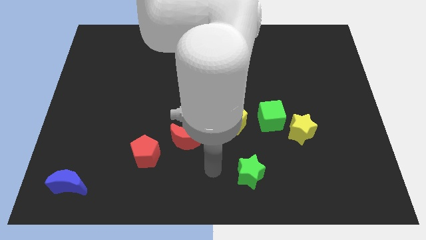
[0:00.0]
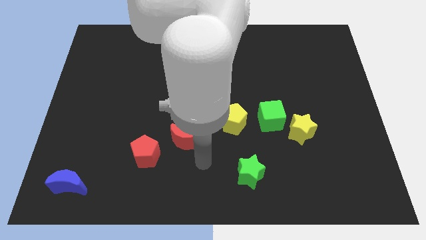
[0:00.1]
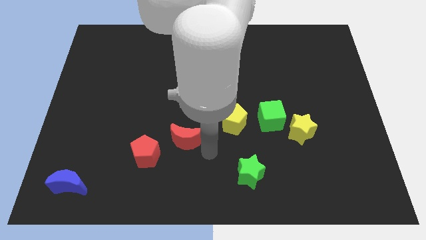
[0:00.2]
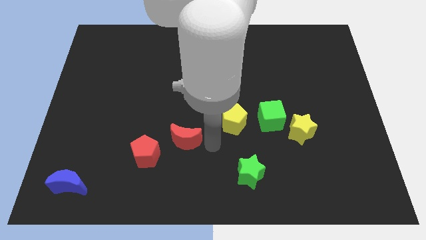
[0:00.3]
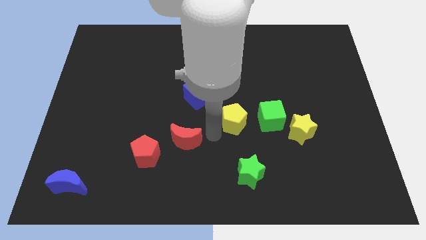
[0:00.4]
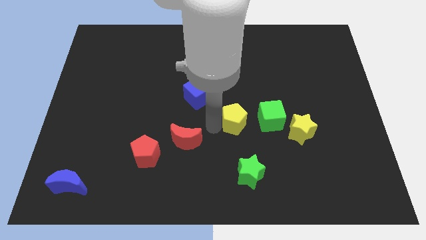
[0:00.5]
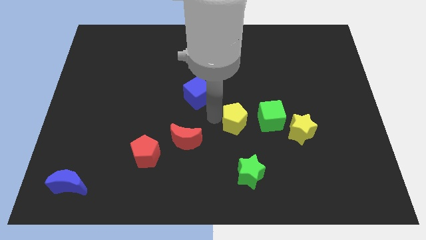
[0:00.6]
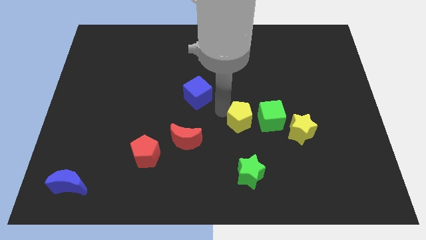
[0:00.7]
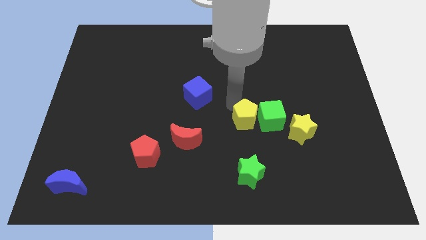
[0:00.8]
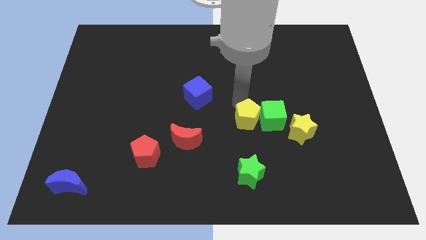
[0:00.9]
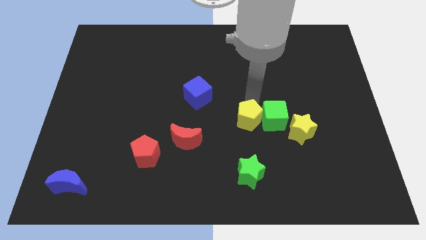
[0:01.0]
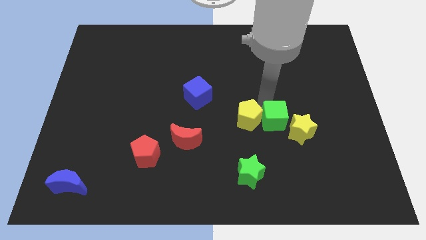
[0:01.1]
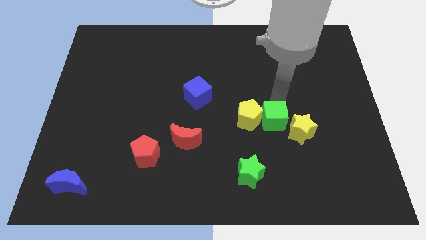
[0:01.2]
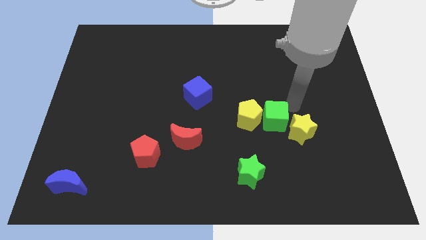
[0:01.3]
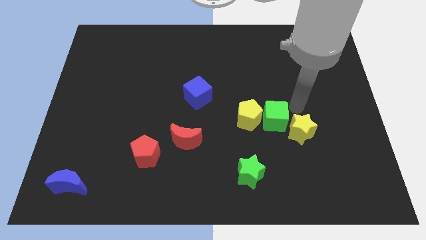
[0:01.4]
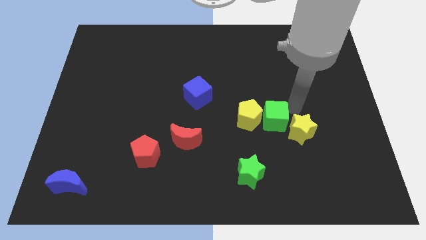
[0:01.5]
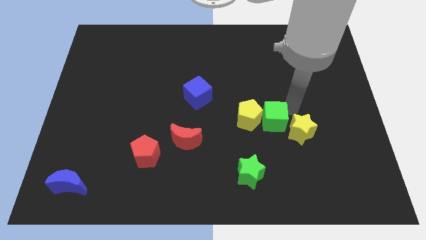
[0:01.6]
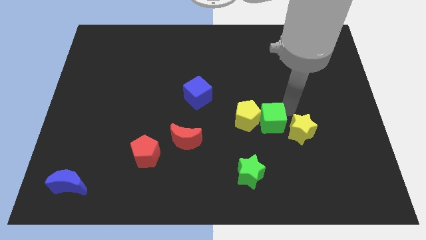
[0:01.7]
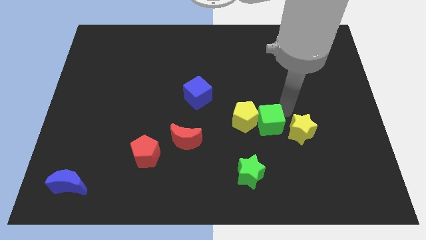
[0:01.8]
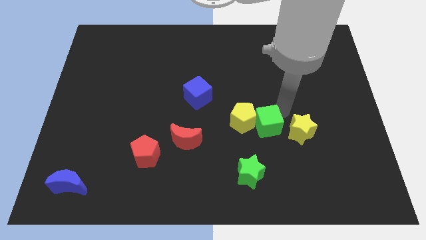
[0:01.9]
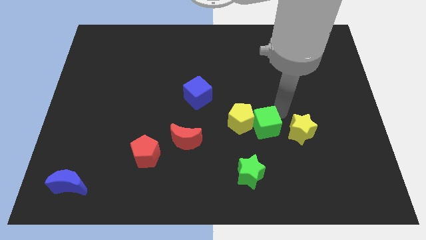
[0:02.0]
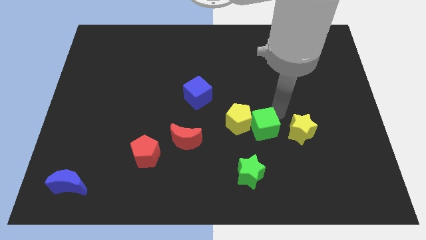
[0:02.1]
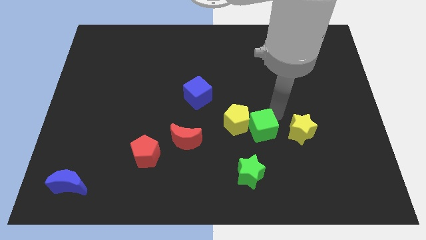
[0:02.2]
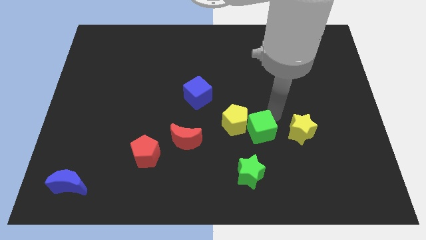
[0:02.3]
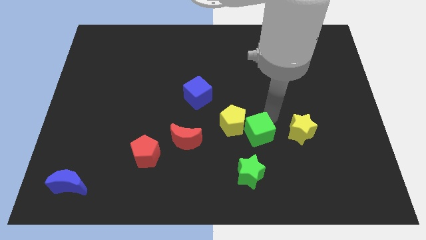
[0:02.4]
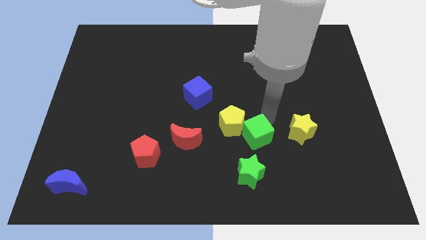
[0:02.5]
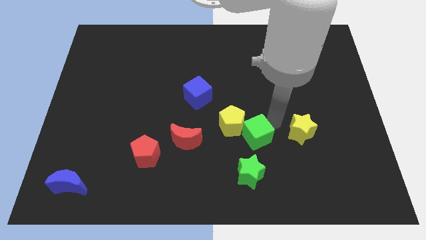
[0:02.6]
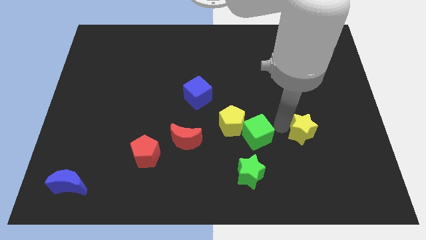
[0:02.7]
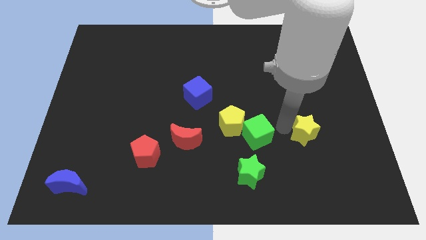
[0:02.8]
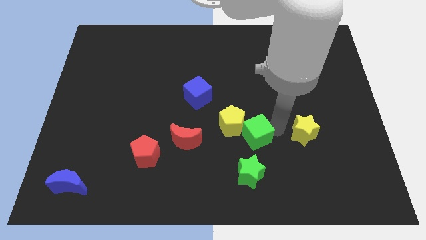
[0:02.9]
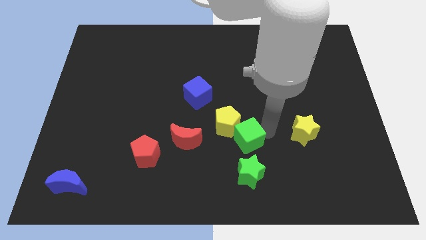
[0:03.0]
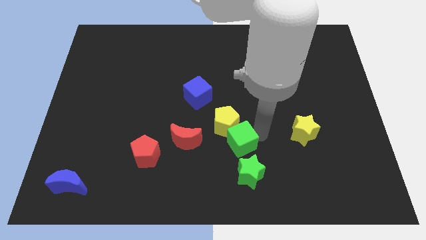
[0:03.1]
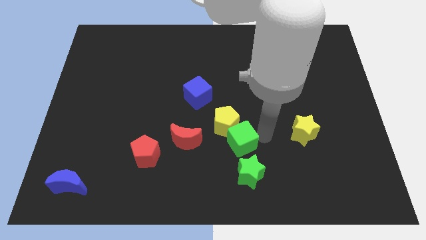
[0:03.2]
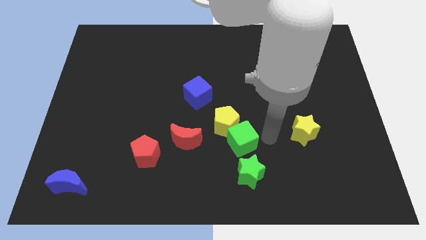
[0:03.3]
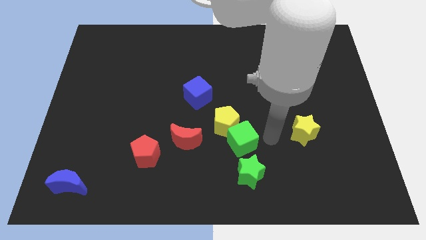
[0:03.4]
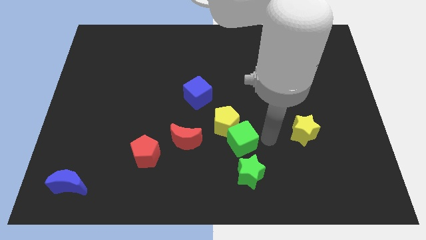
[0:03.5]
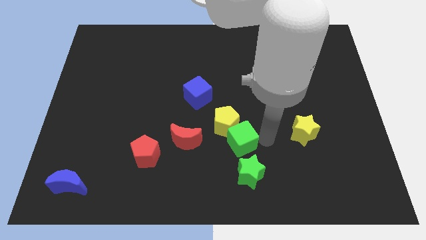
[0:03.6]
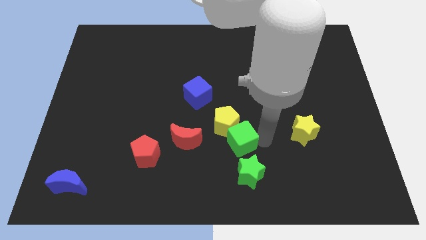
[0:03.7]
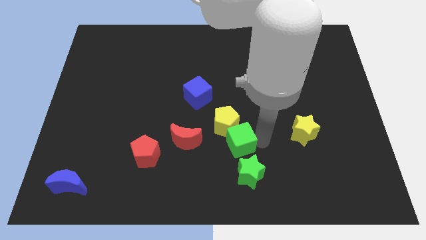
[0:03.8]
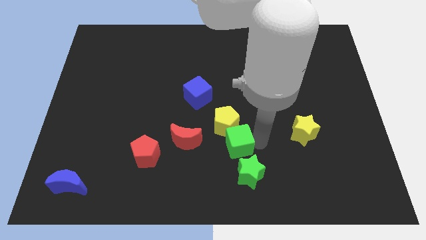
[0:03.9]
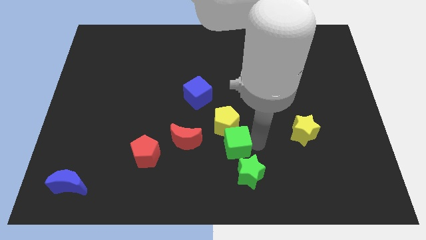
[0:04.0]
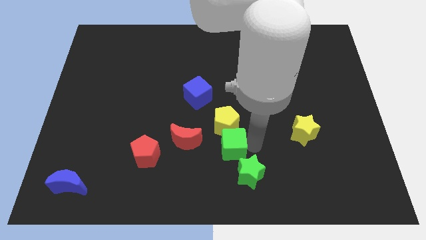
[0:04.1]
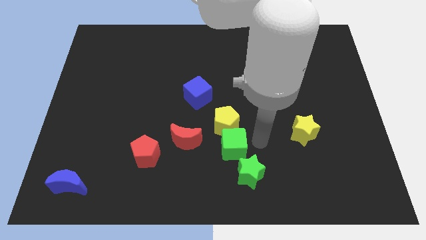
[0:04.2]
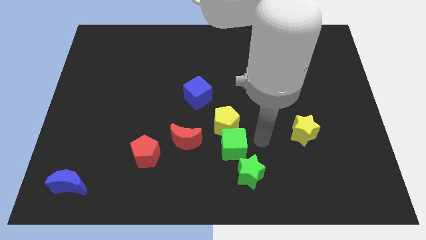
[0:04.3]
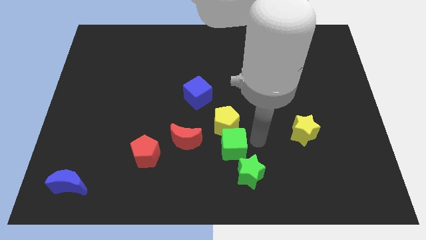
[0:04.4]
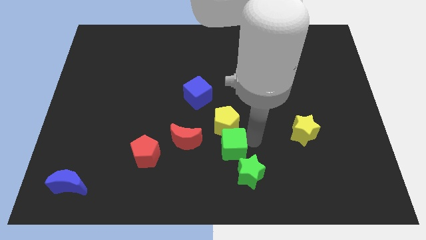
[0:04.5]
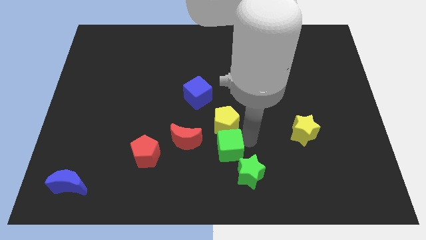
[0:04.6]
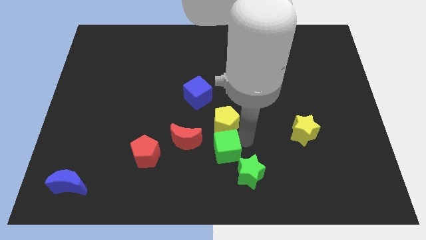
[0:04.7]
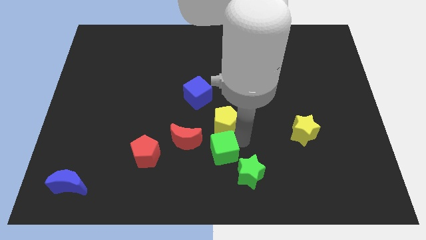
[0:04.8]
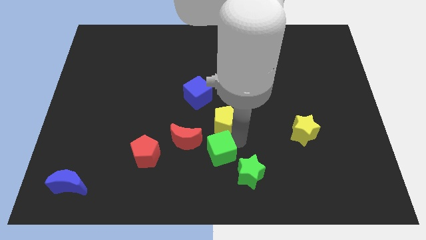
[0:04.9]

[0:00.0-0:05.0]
push the green cube to the right of the red pentagon

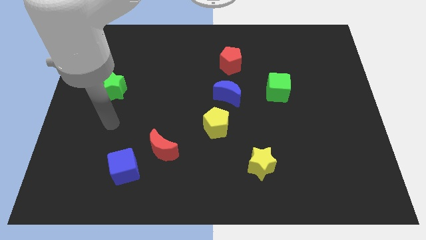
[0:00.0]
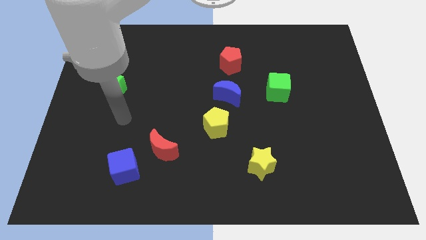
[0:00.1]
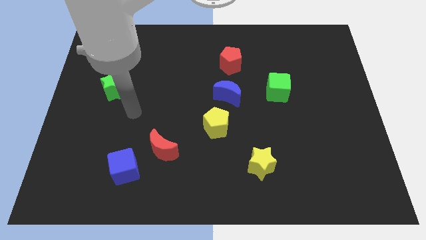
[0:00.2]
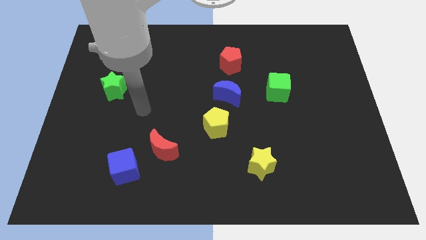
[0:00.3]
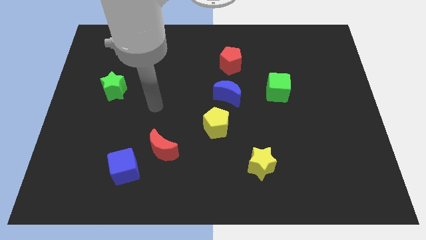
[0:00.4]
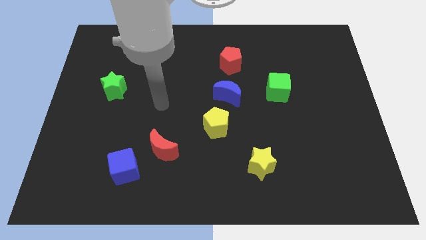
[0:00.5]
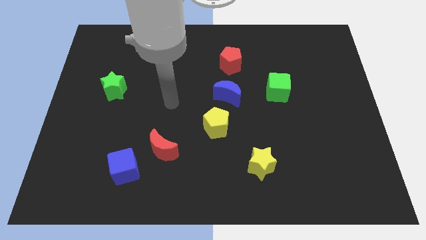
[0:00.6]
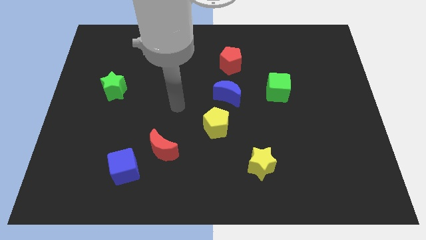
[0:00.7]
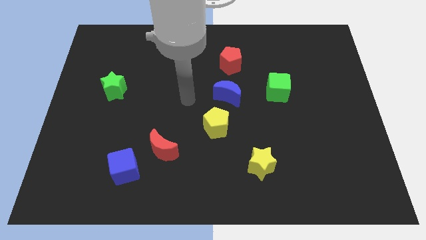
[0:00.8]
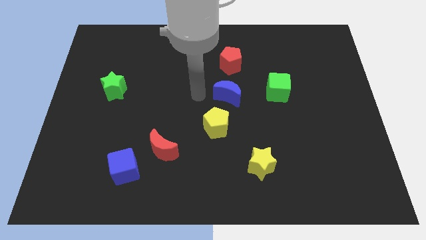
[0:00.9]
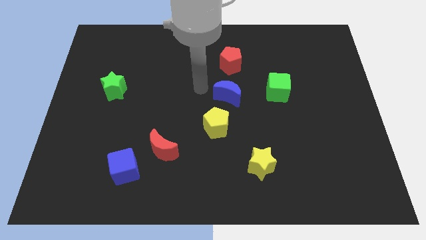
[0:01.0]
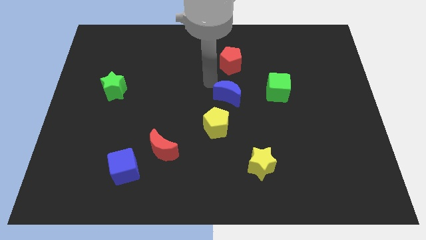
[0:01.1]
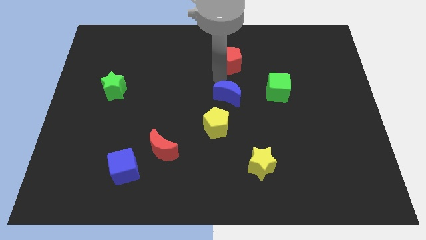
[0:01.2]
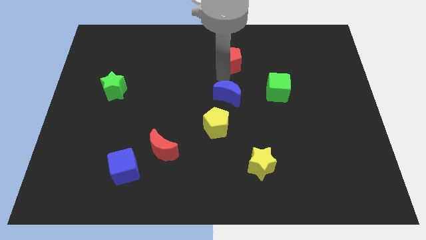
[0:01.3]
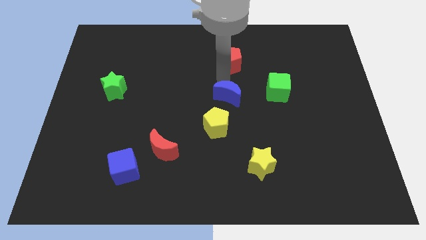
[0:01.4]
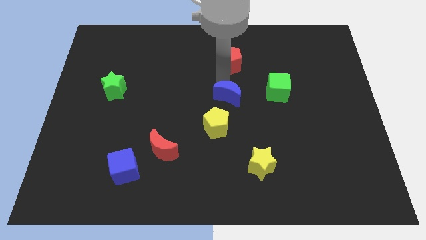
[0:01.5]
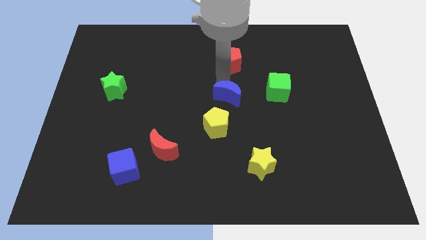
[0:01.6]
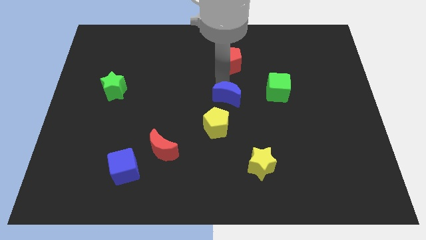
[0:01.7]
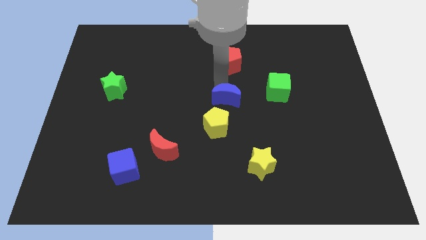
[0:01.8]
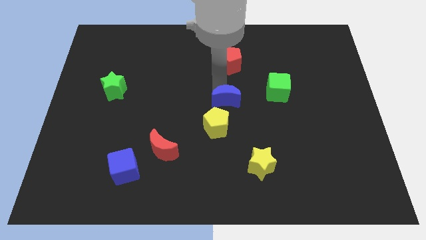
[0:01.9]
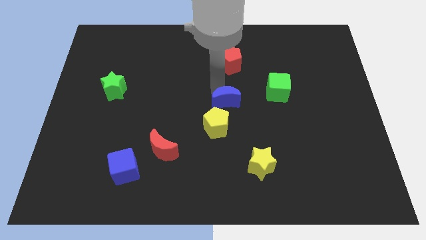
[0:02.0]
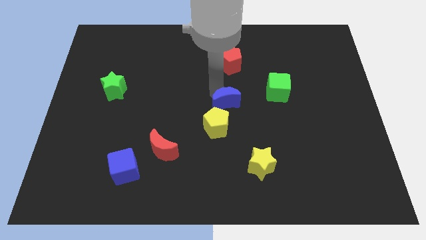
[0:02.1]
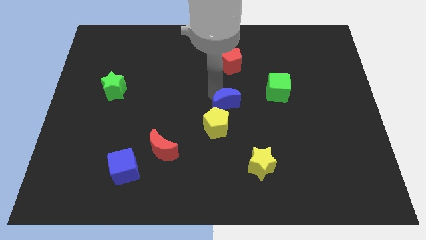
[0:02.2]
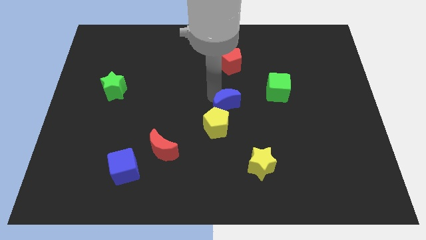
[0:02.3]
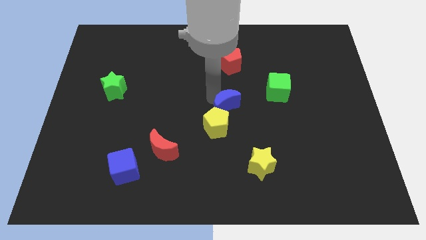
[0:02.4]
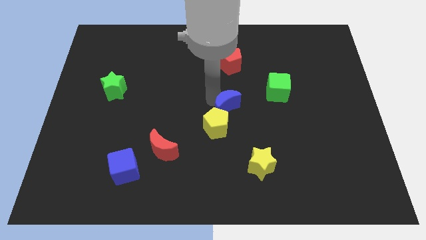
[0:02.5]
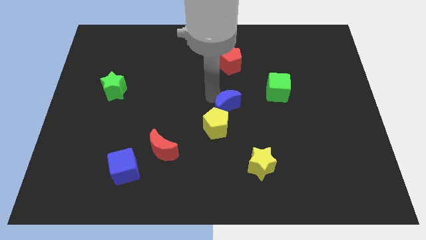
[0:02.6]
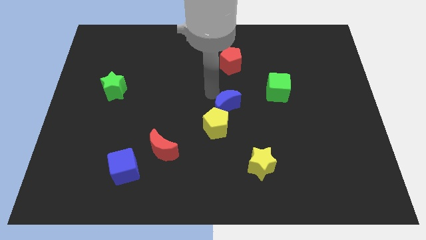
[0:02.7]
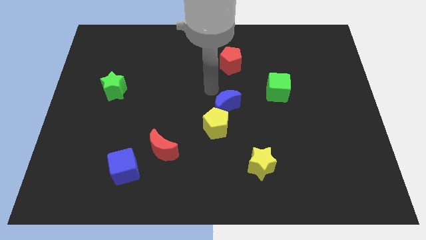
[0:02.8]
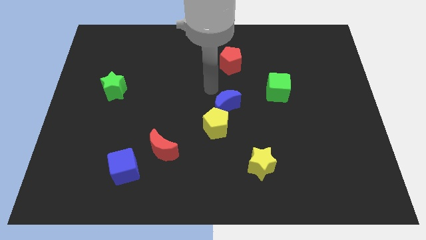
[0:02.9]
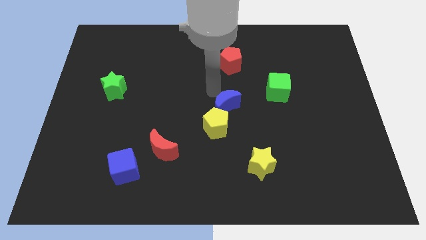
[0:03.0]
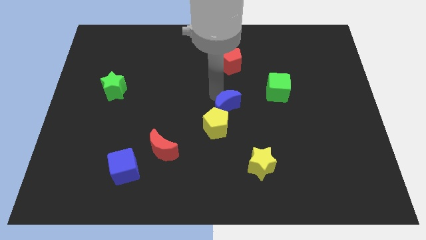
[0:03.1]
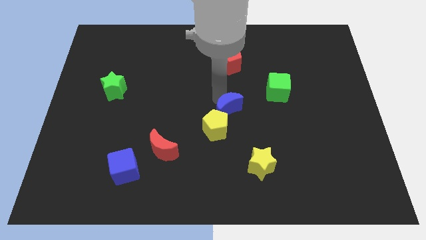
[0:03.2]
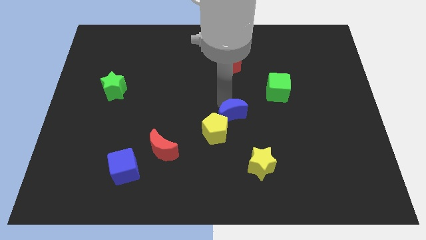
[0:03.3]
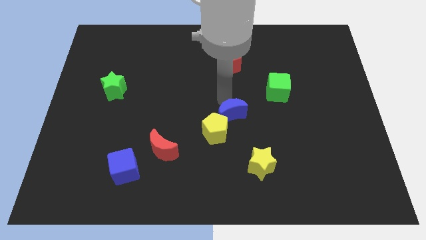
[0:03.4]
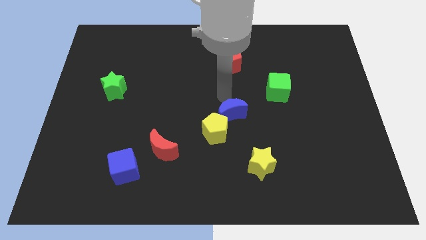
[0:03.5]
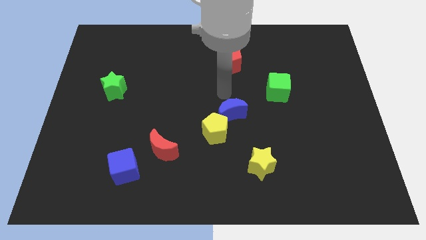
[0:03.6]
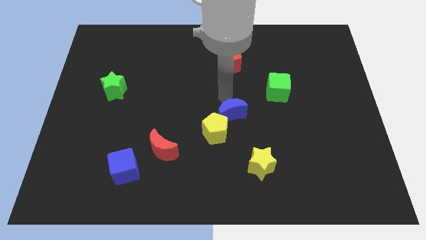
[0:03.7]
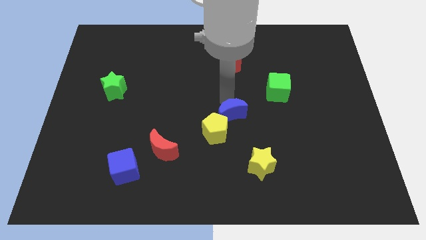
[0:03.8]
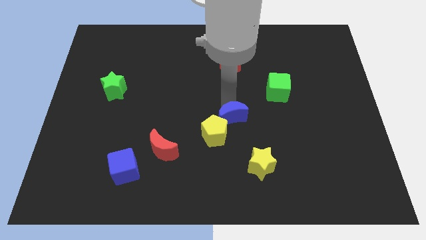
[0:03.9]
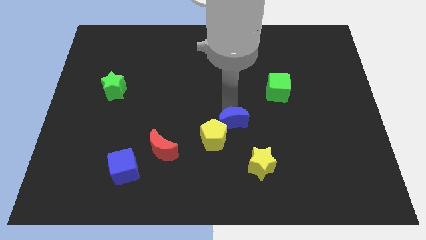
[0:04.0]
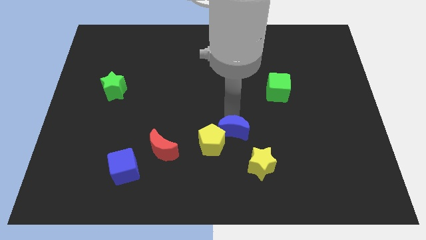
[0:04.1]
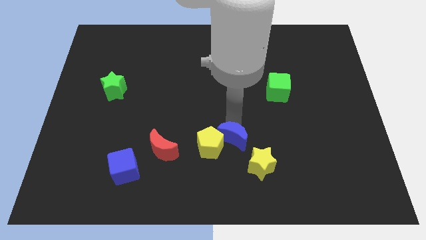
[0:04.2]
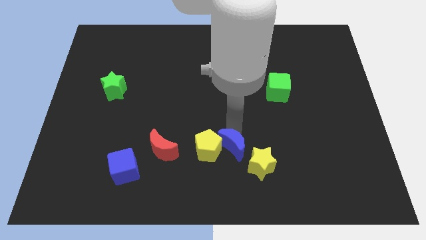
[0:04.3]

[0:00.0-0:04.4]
slide the blue moon to the bottom right side of the yellow pentagon
